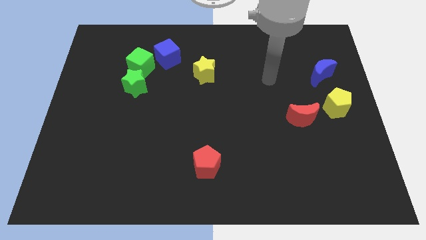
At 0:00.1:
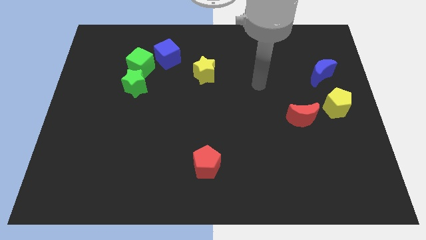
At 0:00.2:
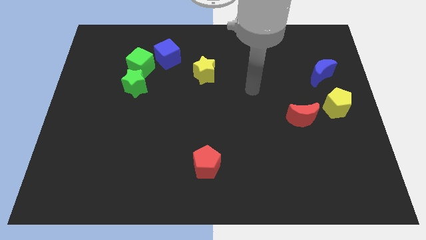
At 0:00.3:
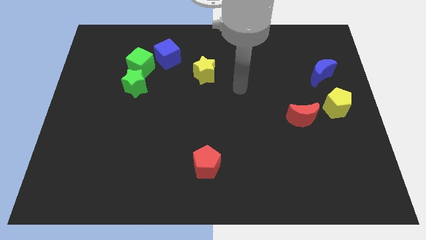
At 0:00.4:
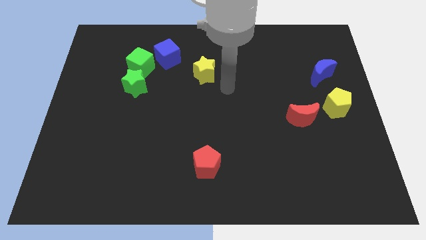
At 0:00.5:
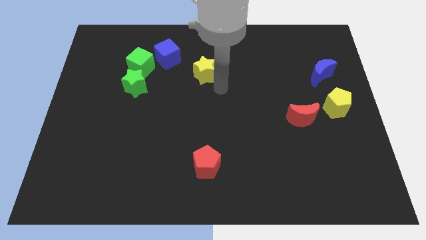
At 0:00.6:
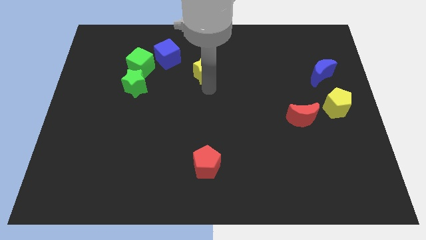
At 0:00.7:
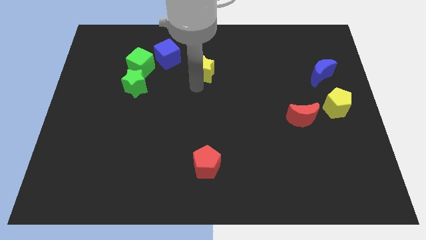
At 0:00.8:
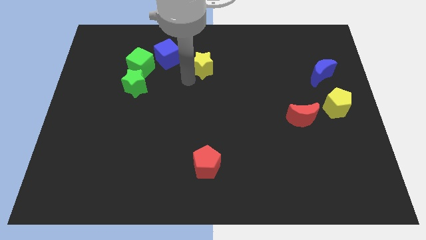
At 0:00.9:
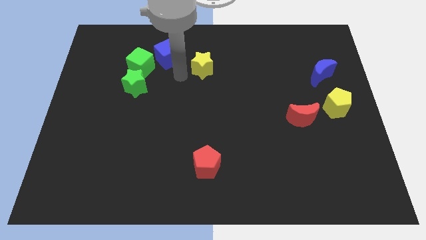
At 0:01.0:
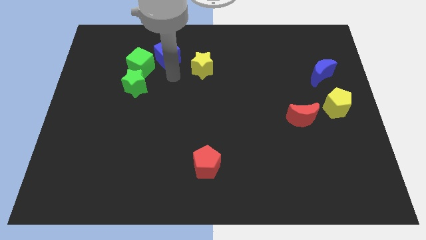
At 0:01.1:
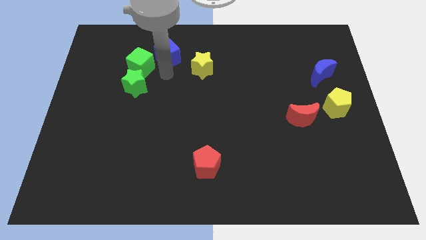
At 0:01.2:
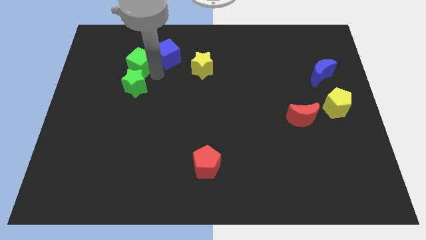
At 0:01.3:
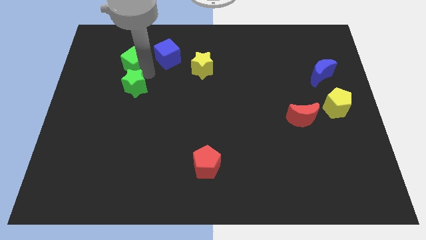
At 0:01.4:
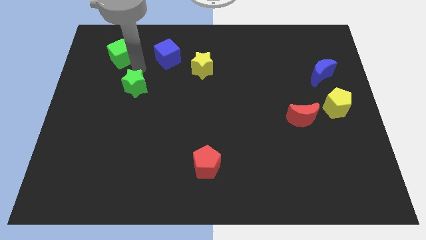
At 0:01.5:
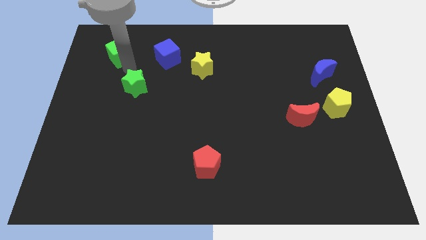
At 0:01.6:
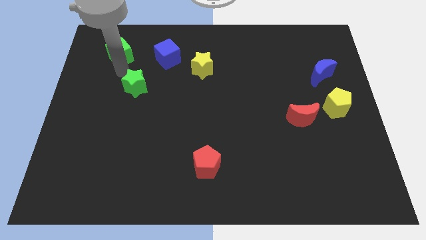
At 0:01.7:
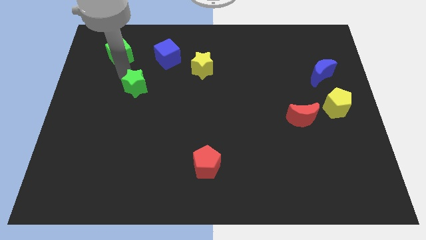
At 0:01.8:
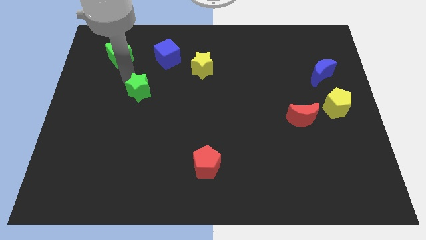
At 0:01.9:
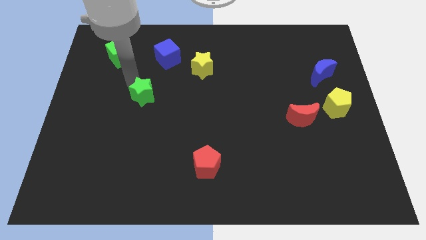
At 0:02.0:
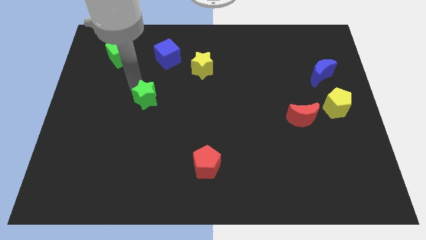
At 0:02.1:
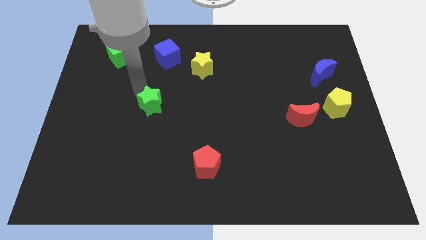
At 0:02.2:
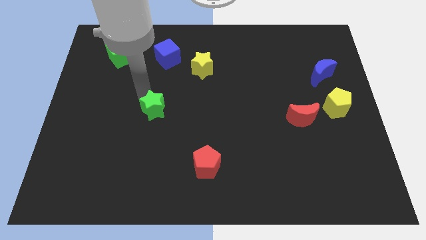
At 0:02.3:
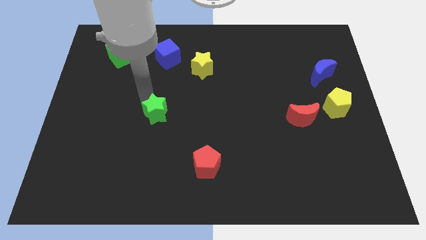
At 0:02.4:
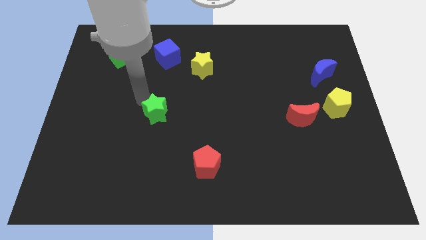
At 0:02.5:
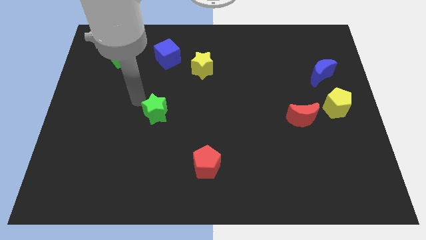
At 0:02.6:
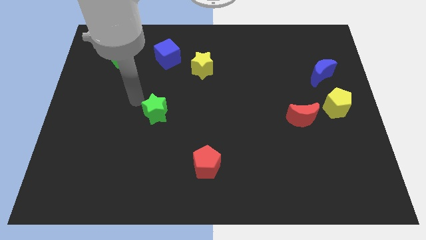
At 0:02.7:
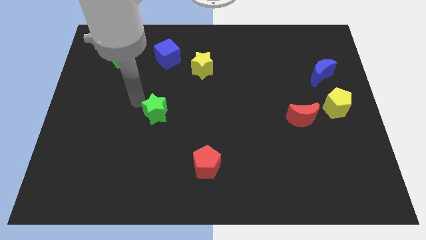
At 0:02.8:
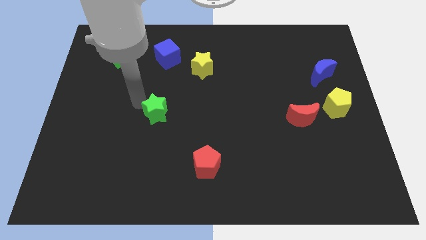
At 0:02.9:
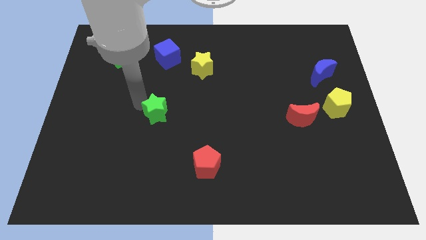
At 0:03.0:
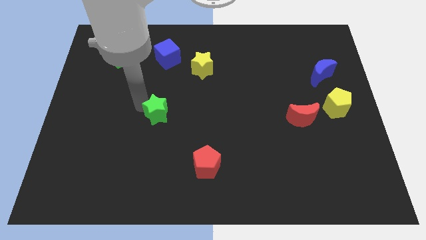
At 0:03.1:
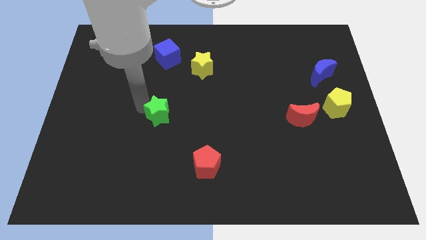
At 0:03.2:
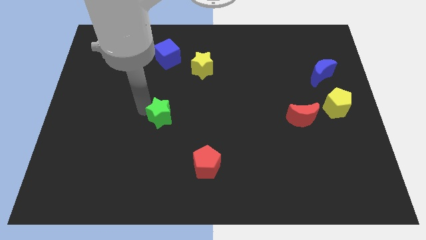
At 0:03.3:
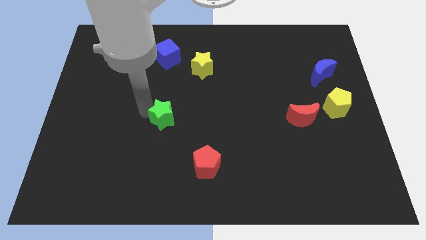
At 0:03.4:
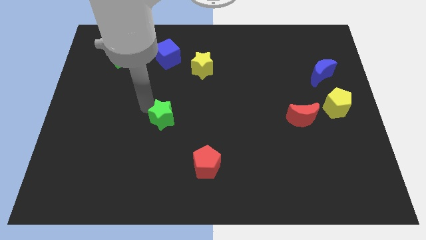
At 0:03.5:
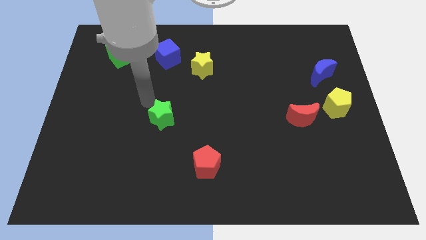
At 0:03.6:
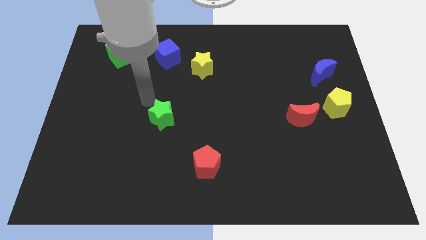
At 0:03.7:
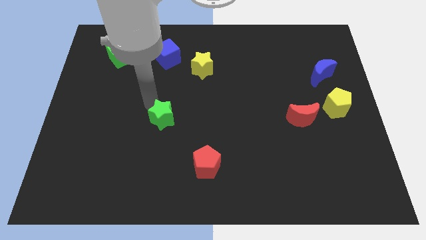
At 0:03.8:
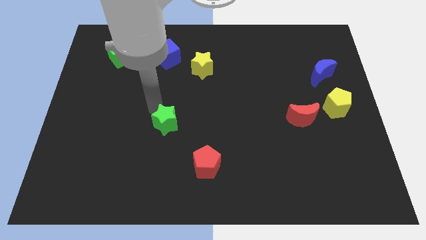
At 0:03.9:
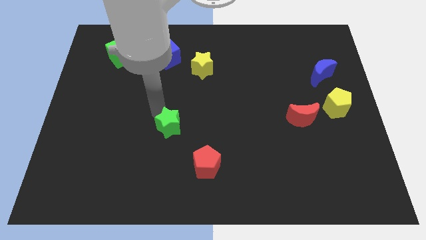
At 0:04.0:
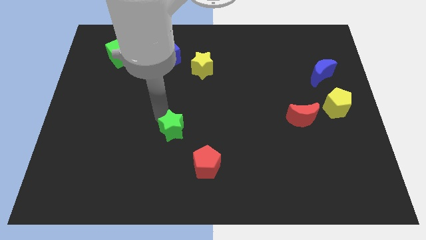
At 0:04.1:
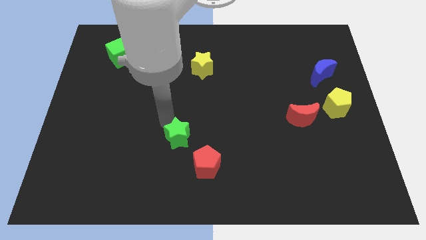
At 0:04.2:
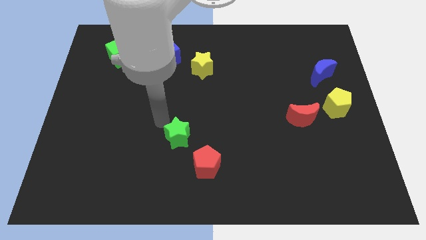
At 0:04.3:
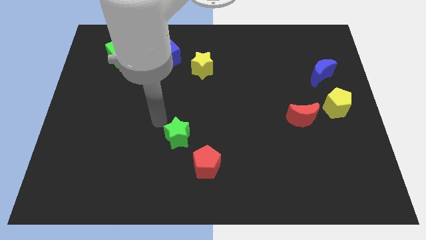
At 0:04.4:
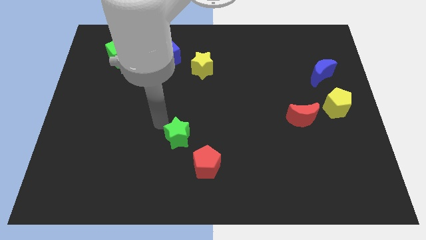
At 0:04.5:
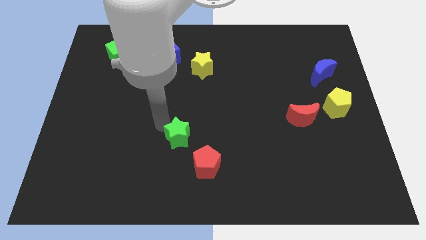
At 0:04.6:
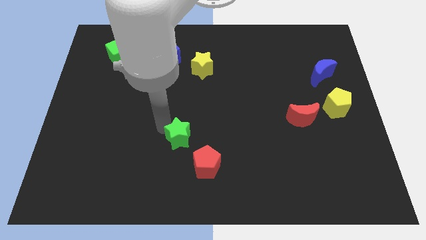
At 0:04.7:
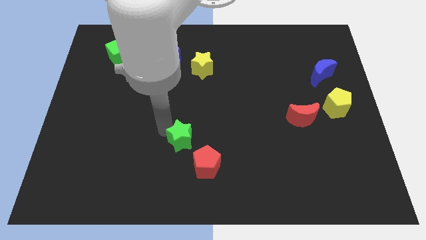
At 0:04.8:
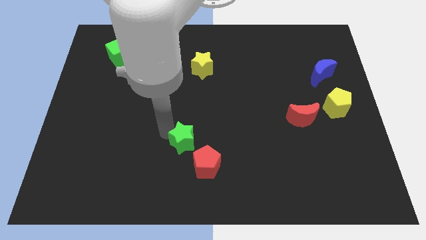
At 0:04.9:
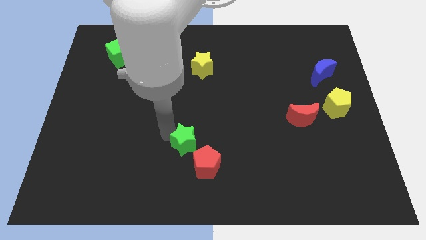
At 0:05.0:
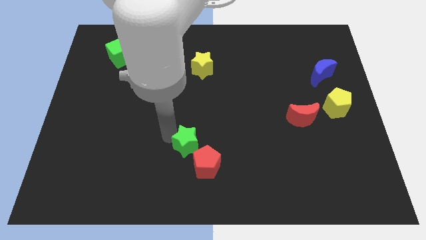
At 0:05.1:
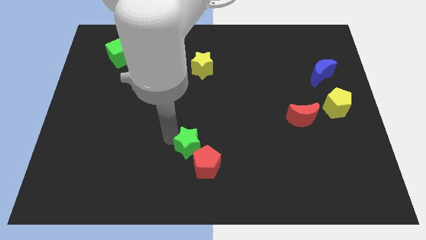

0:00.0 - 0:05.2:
move the green star close to the red pentagon

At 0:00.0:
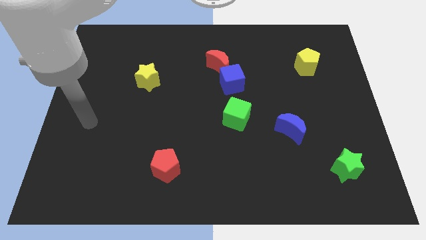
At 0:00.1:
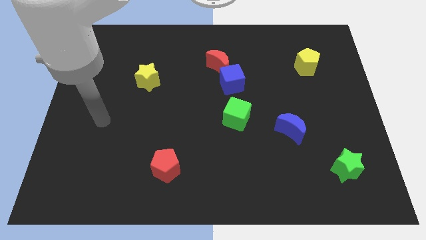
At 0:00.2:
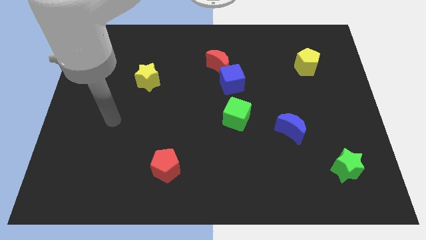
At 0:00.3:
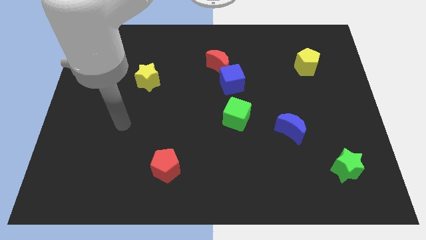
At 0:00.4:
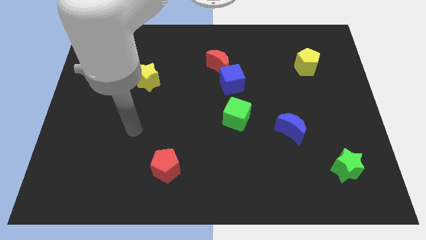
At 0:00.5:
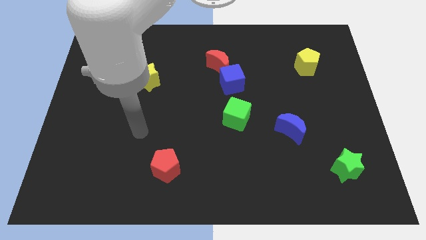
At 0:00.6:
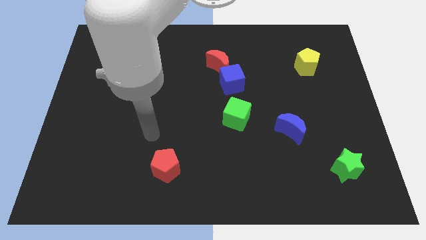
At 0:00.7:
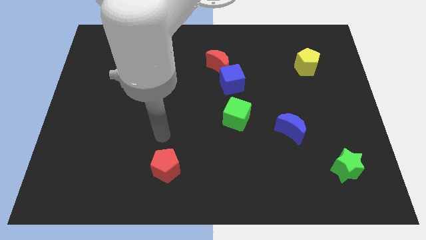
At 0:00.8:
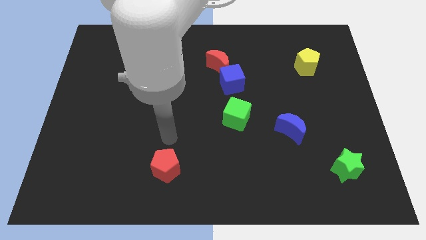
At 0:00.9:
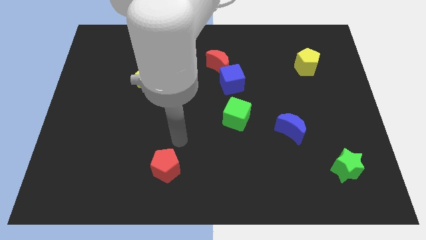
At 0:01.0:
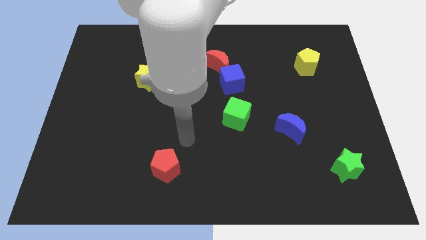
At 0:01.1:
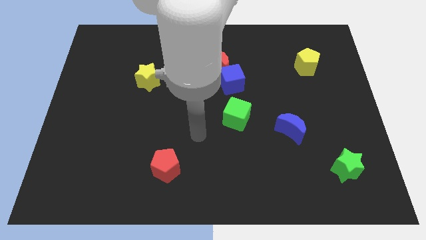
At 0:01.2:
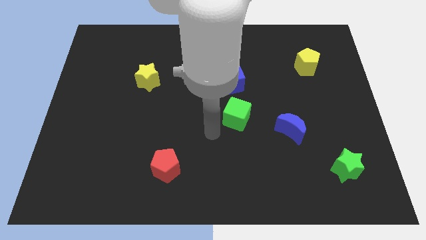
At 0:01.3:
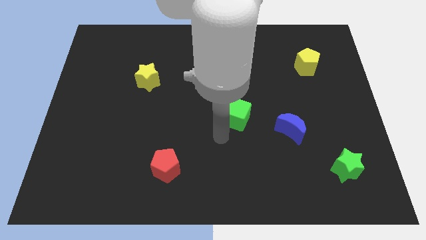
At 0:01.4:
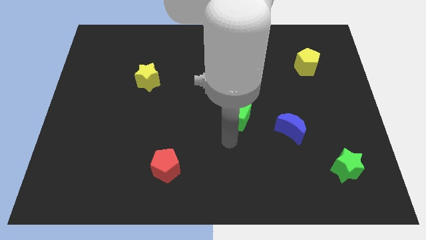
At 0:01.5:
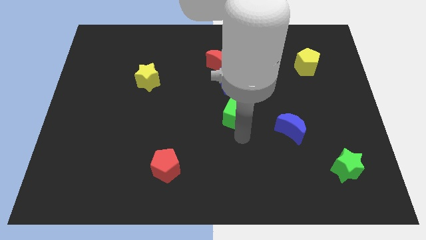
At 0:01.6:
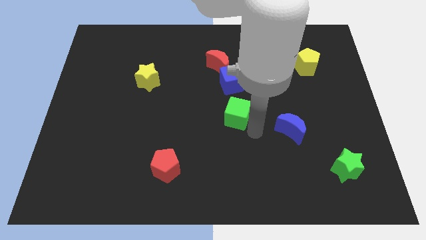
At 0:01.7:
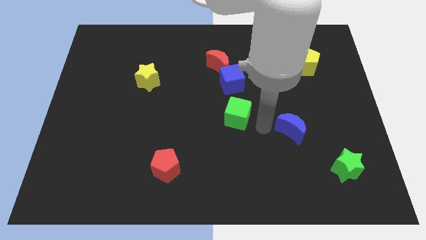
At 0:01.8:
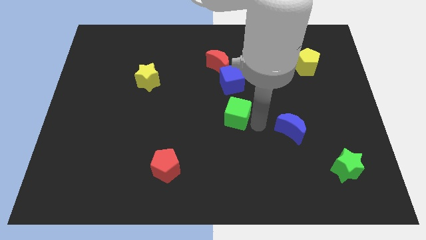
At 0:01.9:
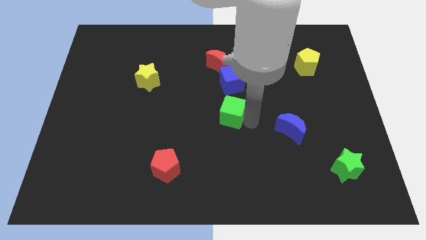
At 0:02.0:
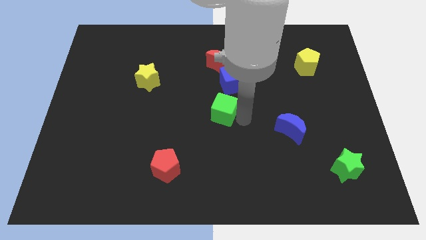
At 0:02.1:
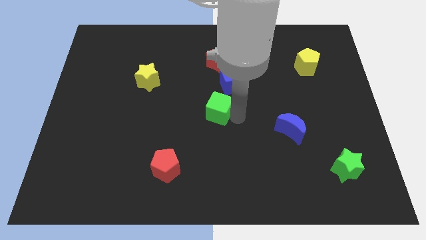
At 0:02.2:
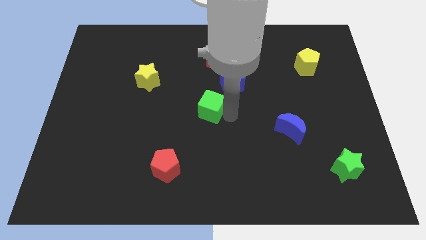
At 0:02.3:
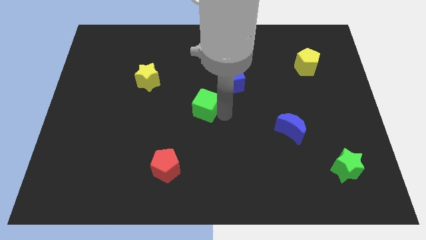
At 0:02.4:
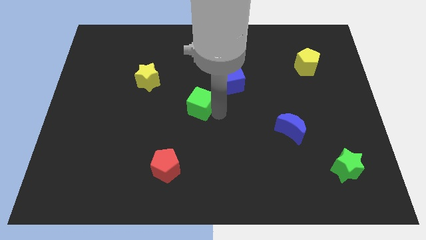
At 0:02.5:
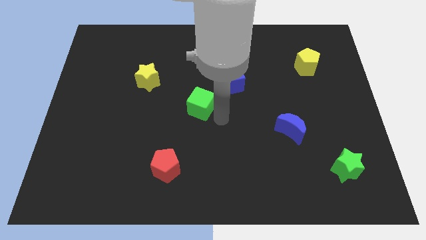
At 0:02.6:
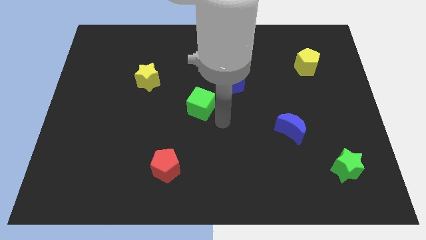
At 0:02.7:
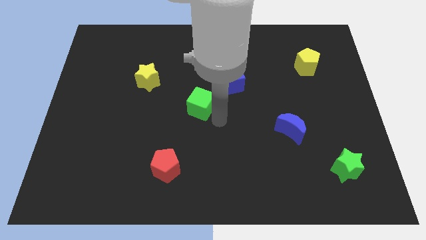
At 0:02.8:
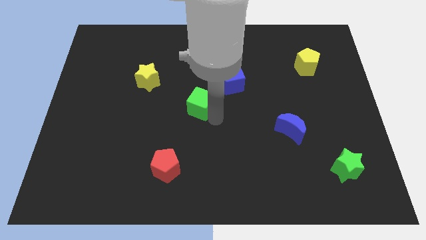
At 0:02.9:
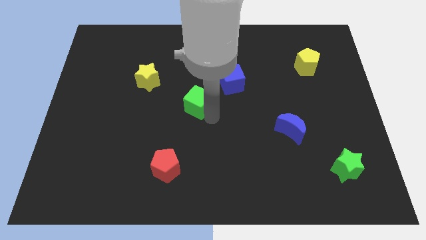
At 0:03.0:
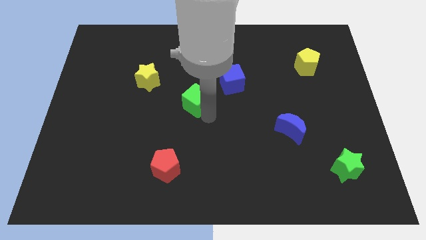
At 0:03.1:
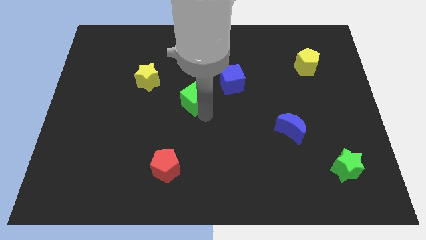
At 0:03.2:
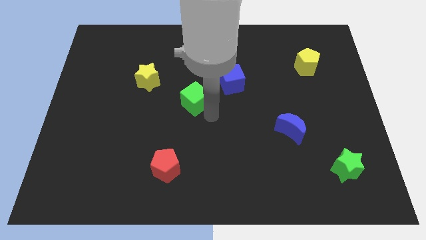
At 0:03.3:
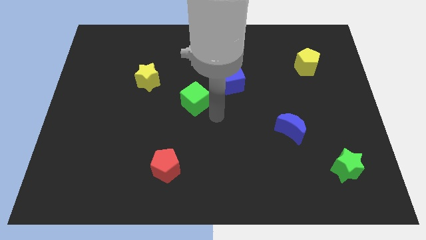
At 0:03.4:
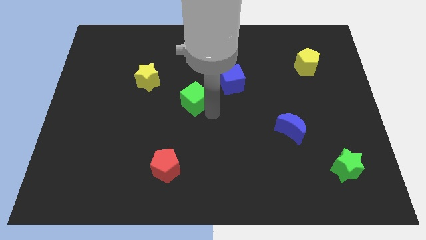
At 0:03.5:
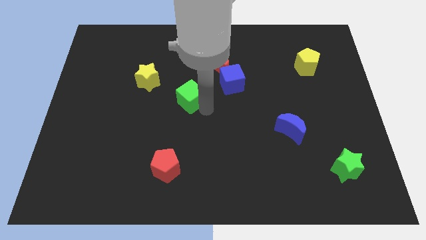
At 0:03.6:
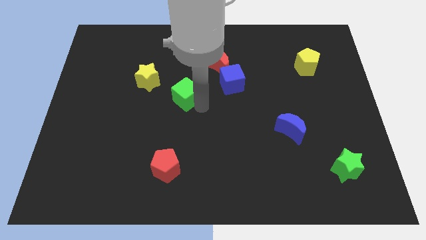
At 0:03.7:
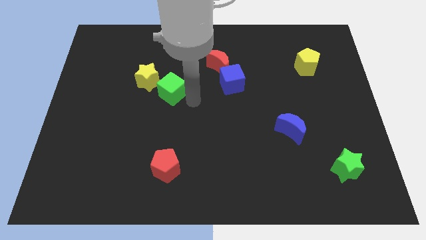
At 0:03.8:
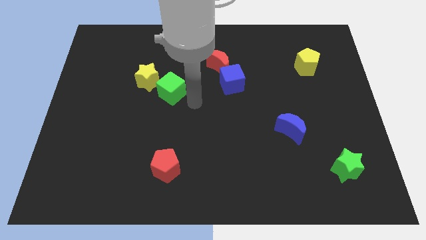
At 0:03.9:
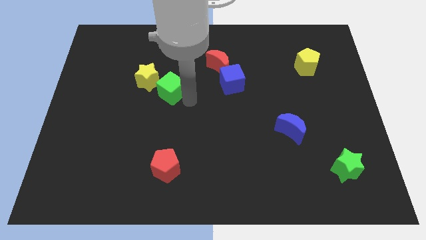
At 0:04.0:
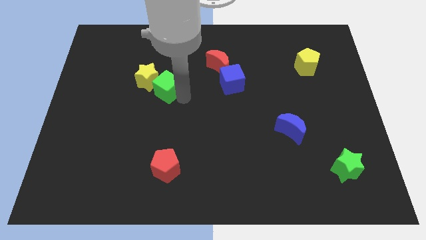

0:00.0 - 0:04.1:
move the green cube close to the yellow star
